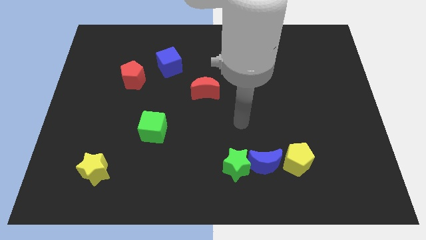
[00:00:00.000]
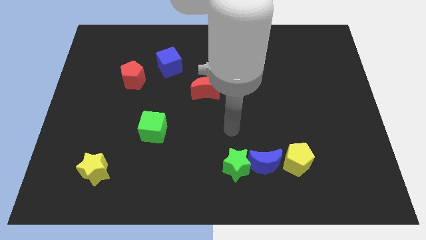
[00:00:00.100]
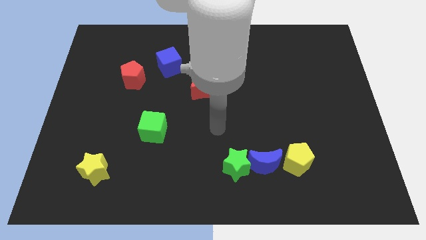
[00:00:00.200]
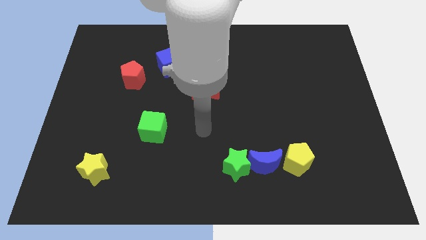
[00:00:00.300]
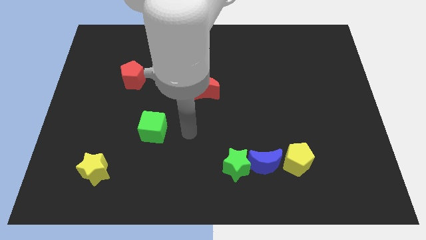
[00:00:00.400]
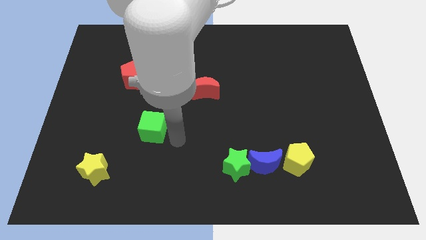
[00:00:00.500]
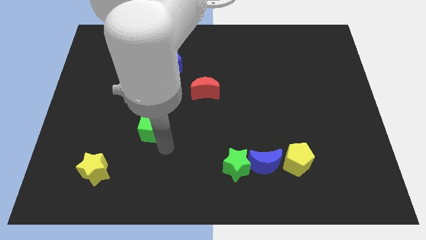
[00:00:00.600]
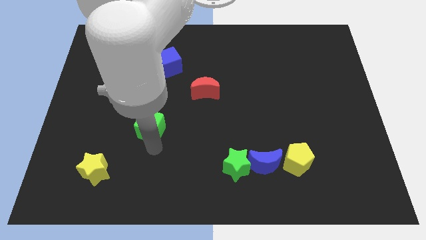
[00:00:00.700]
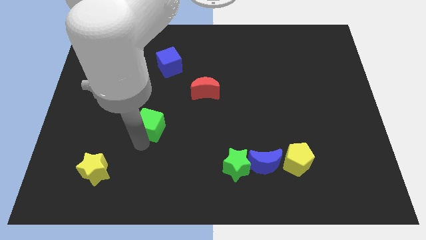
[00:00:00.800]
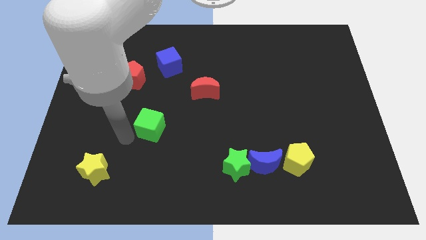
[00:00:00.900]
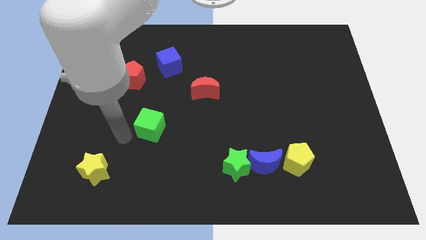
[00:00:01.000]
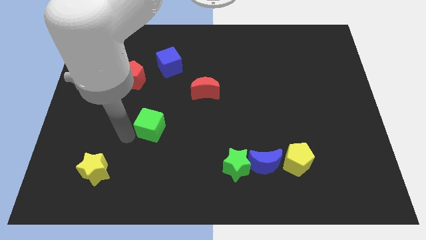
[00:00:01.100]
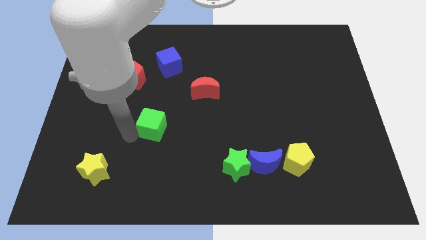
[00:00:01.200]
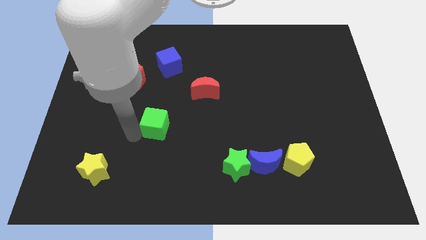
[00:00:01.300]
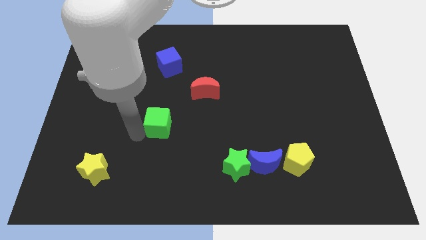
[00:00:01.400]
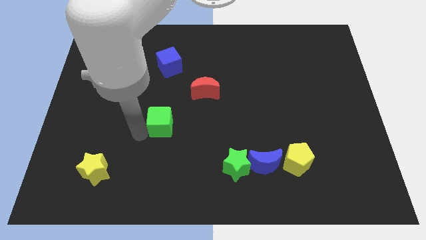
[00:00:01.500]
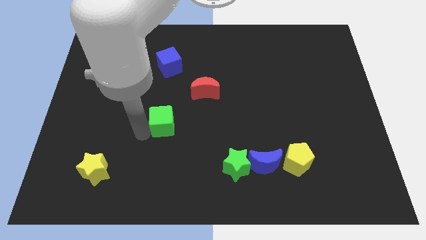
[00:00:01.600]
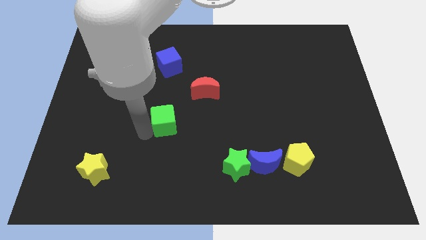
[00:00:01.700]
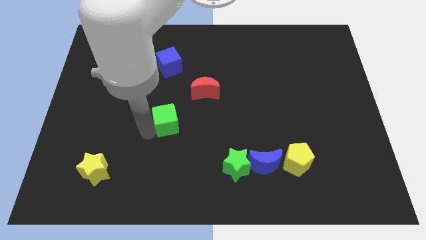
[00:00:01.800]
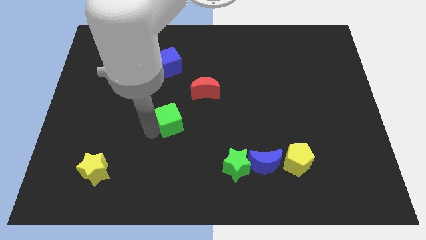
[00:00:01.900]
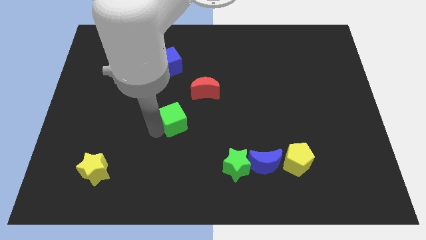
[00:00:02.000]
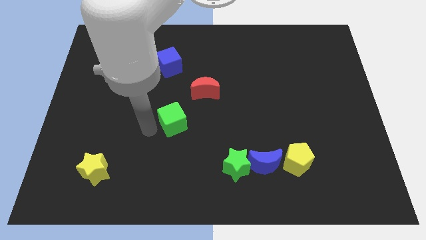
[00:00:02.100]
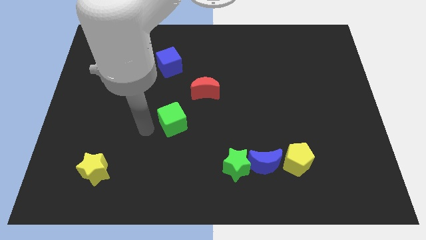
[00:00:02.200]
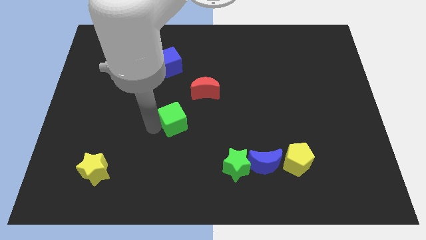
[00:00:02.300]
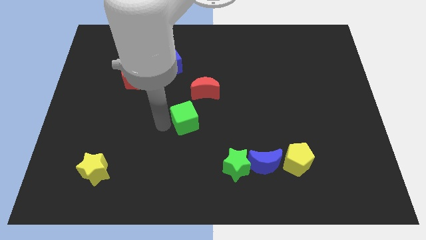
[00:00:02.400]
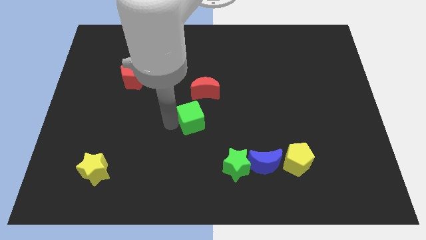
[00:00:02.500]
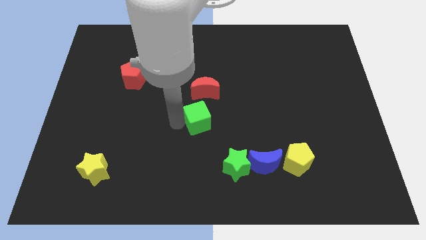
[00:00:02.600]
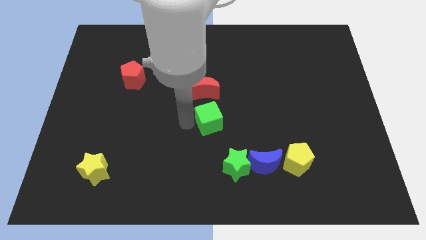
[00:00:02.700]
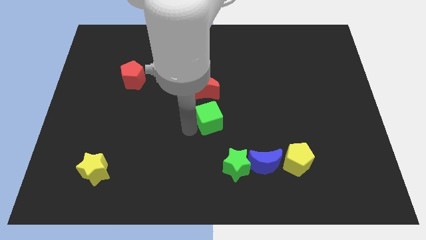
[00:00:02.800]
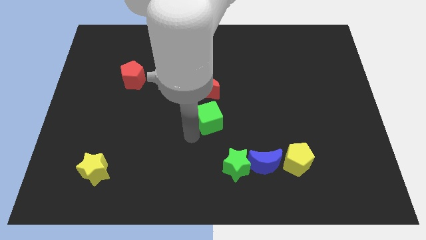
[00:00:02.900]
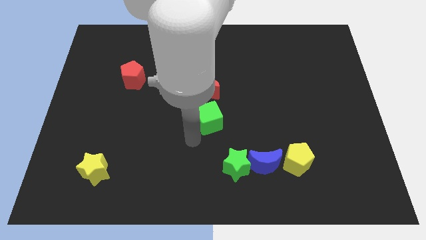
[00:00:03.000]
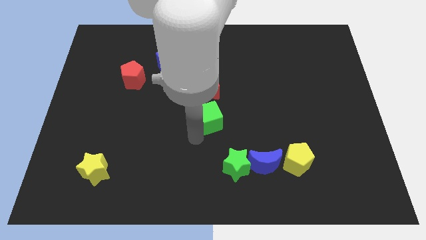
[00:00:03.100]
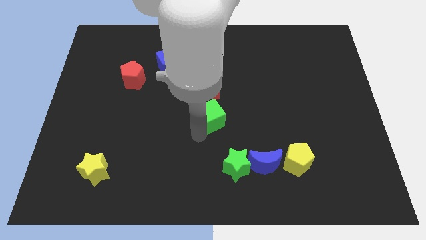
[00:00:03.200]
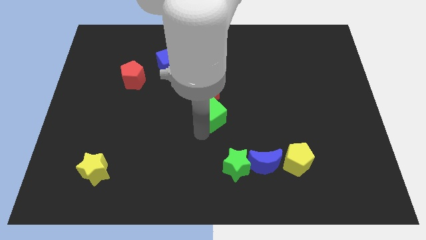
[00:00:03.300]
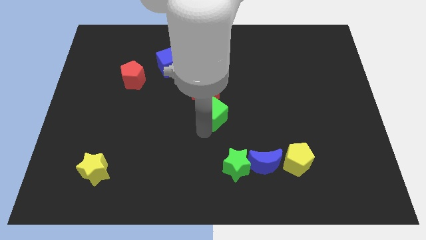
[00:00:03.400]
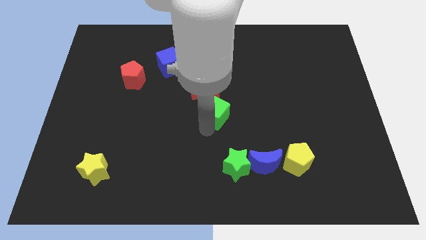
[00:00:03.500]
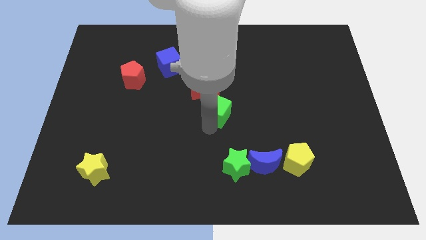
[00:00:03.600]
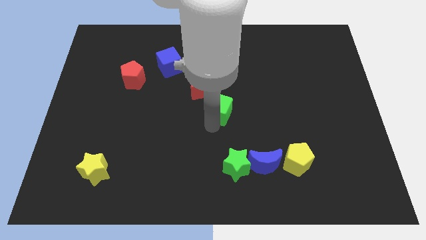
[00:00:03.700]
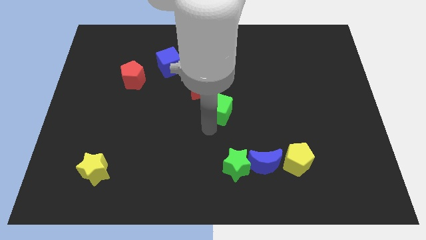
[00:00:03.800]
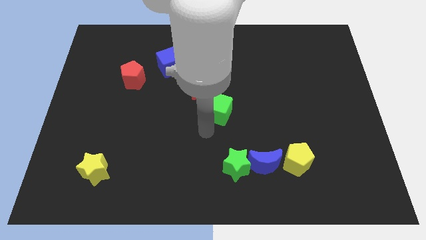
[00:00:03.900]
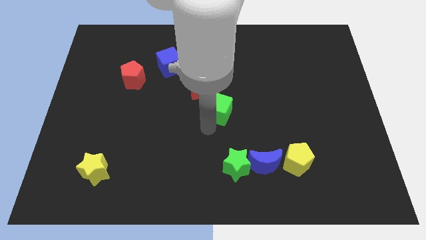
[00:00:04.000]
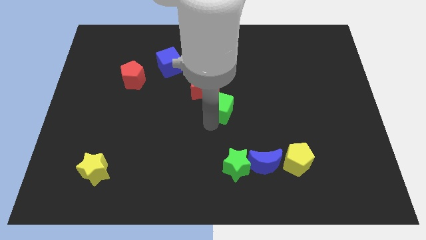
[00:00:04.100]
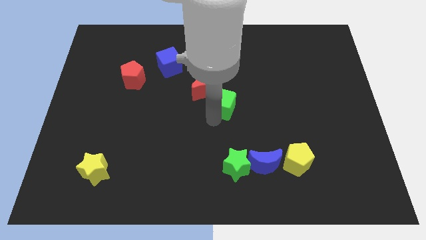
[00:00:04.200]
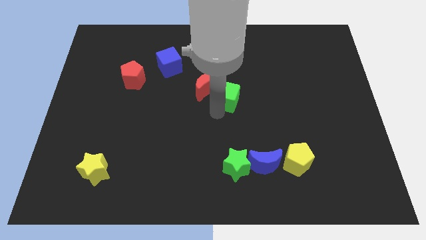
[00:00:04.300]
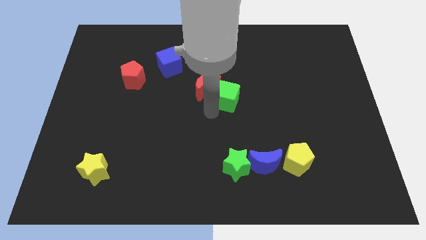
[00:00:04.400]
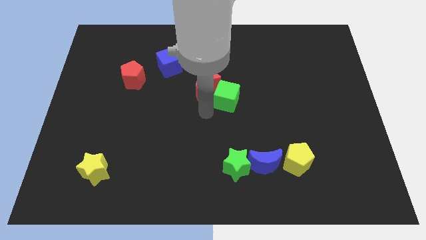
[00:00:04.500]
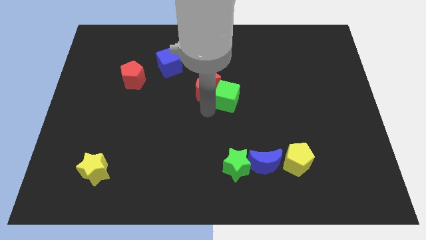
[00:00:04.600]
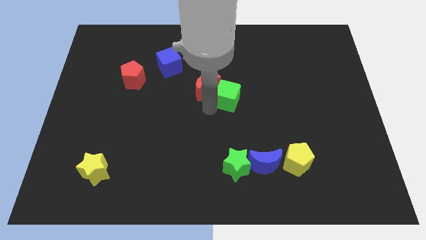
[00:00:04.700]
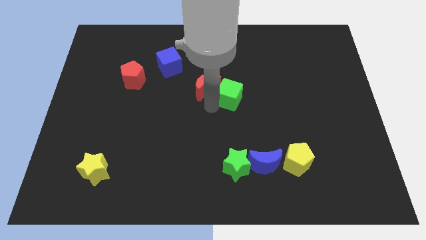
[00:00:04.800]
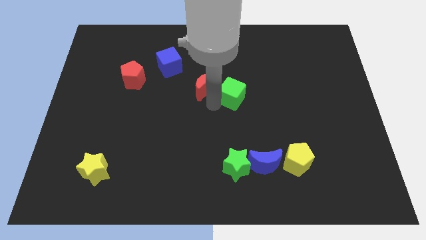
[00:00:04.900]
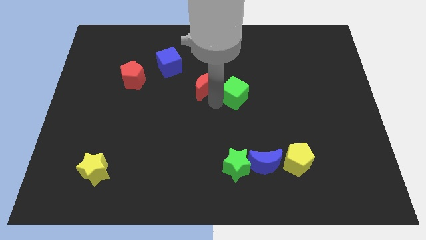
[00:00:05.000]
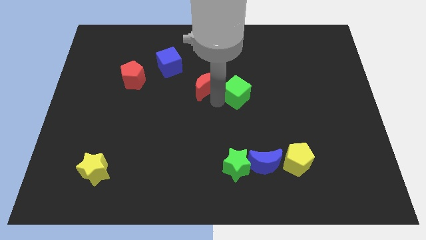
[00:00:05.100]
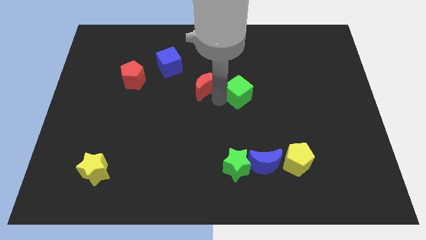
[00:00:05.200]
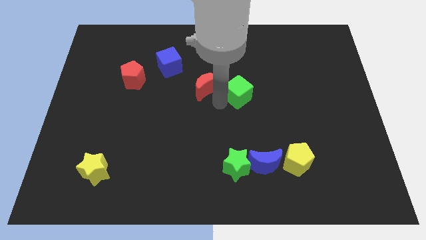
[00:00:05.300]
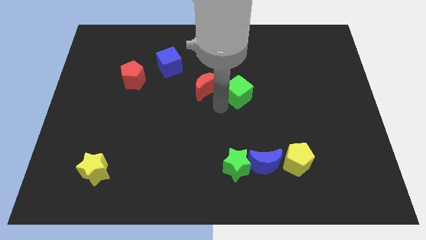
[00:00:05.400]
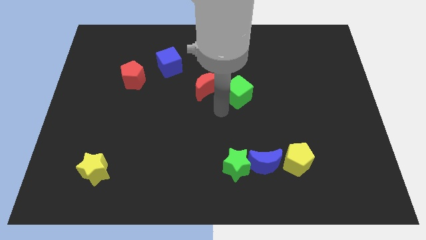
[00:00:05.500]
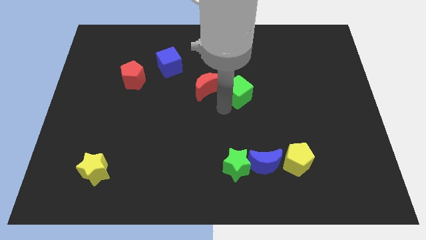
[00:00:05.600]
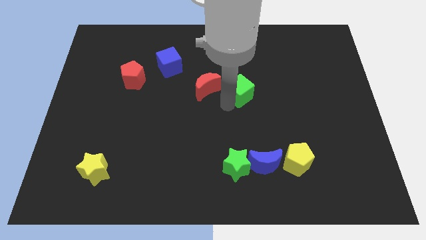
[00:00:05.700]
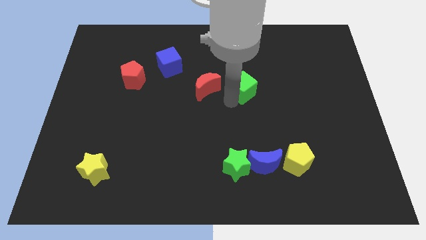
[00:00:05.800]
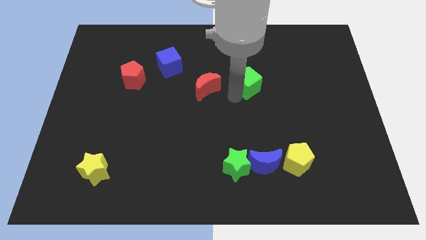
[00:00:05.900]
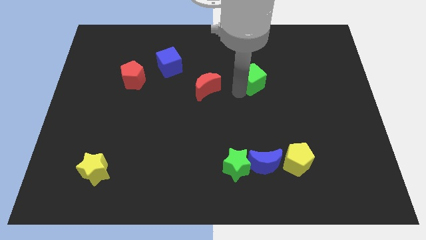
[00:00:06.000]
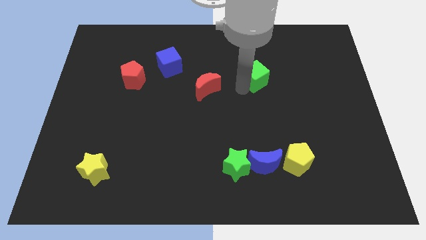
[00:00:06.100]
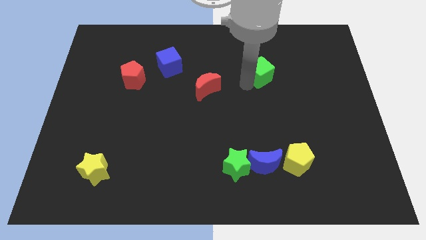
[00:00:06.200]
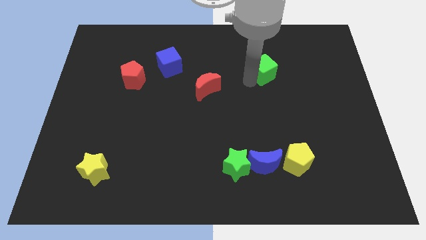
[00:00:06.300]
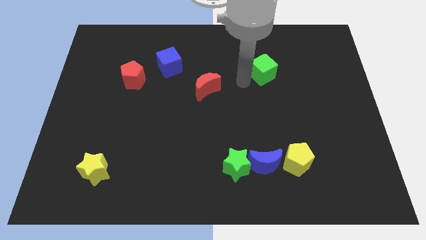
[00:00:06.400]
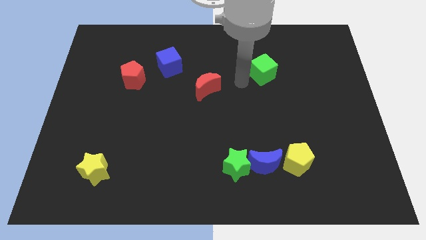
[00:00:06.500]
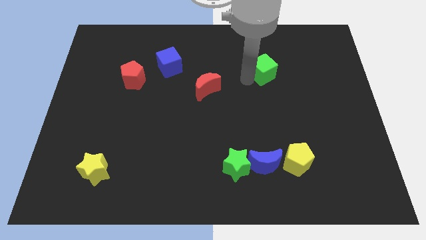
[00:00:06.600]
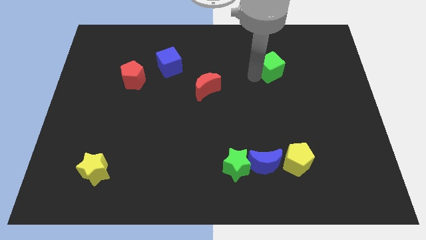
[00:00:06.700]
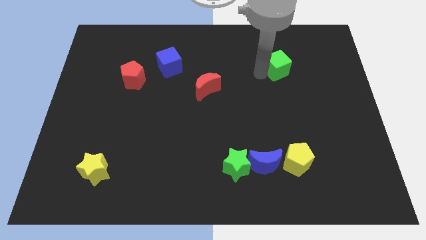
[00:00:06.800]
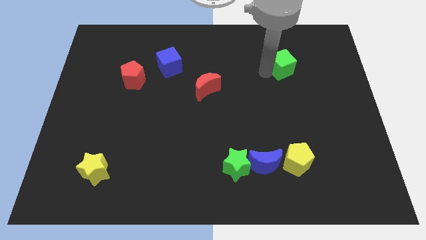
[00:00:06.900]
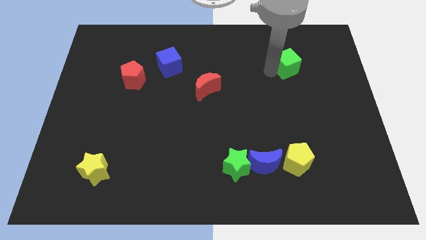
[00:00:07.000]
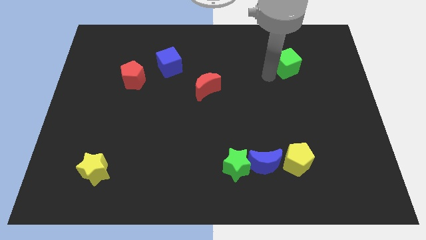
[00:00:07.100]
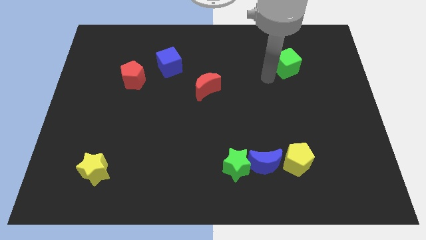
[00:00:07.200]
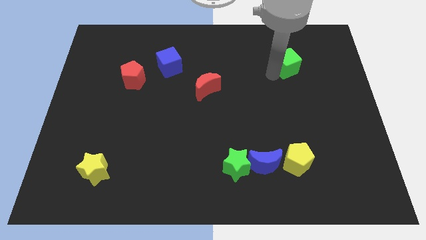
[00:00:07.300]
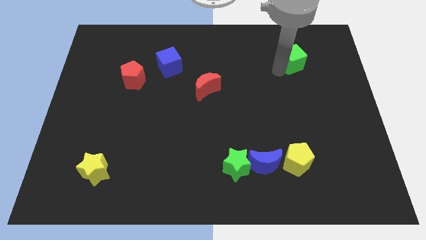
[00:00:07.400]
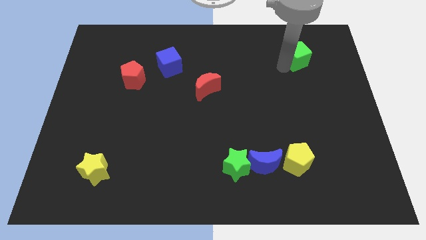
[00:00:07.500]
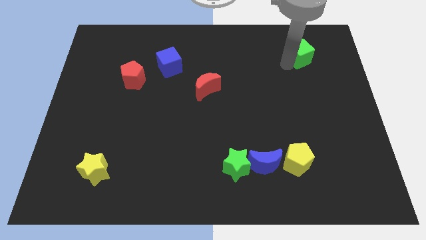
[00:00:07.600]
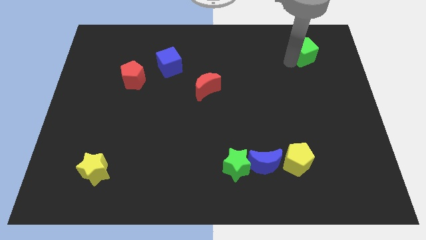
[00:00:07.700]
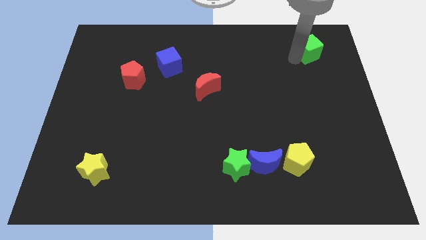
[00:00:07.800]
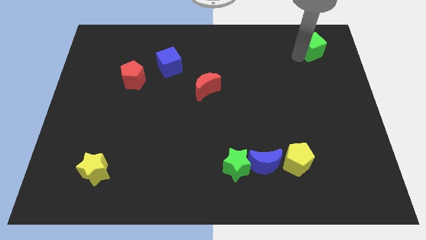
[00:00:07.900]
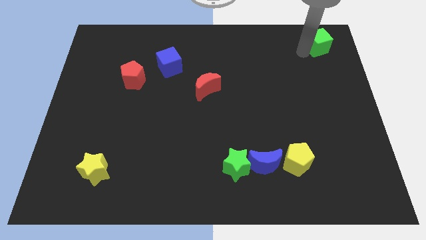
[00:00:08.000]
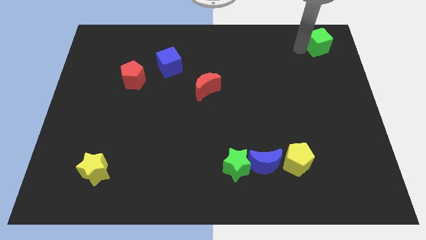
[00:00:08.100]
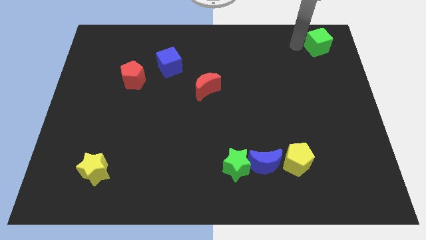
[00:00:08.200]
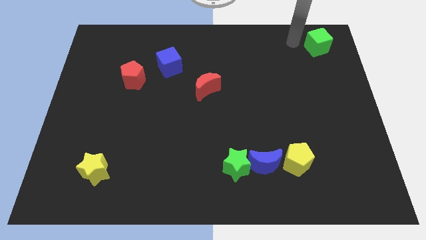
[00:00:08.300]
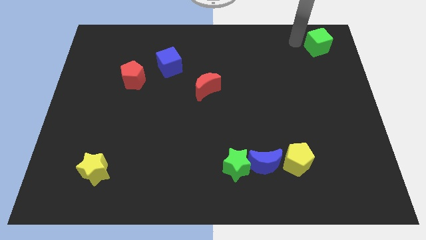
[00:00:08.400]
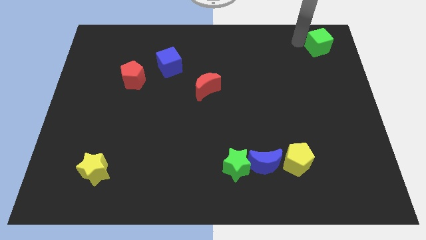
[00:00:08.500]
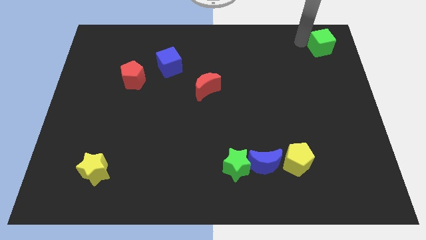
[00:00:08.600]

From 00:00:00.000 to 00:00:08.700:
push the green cube to the top right corner
